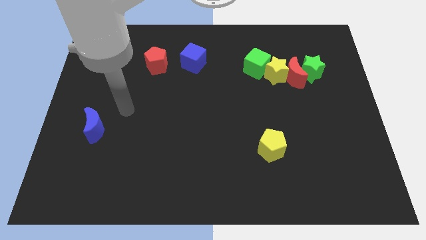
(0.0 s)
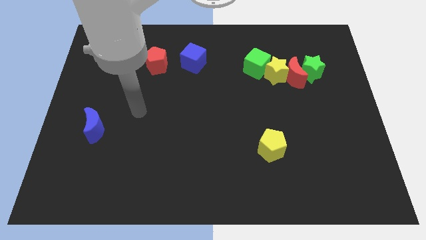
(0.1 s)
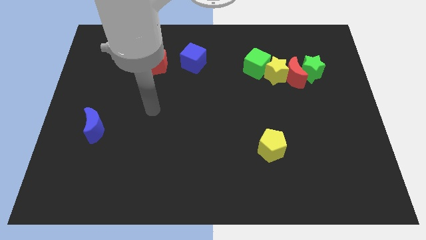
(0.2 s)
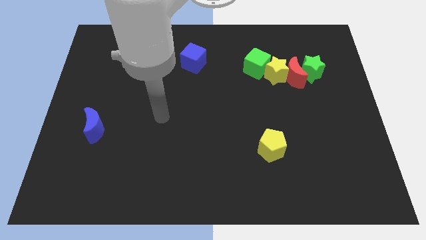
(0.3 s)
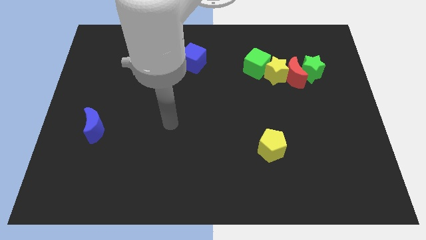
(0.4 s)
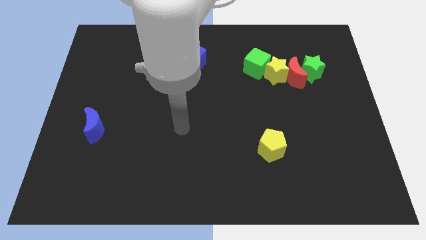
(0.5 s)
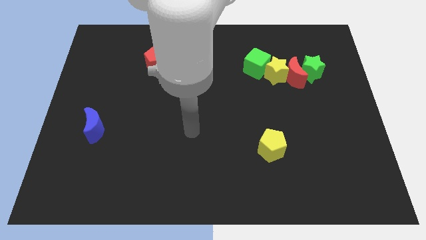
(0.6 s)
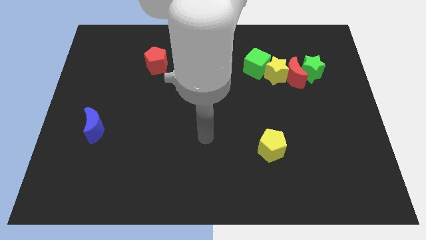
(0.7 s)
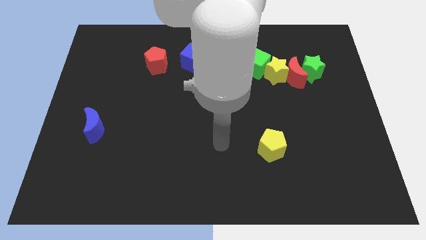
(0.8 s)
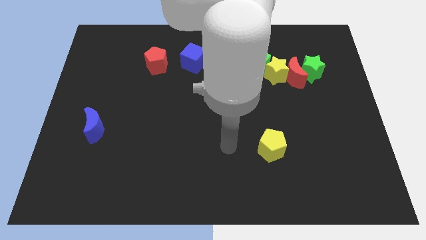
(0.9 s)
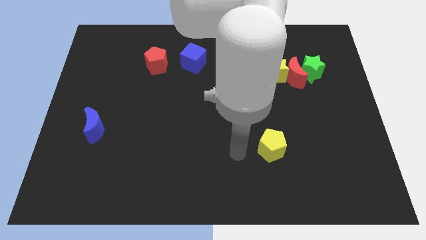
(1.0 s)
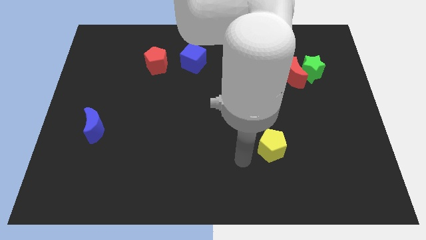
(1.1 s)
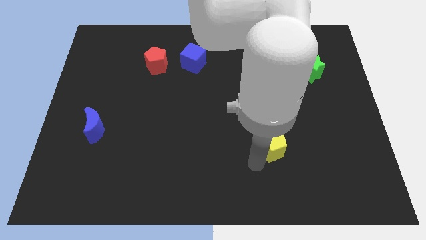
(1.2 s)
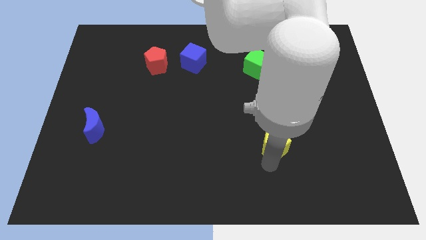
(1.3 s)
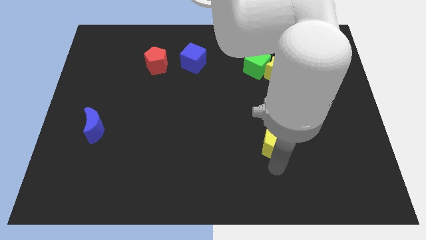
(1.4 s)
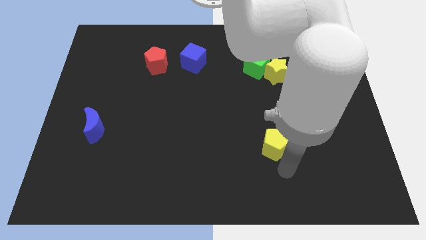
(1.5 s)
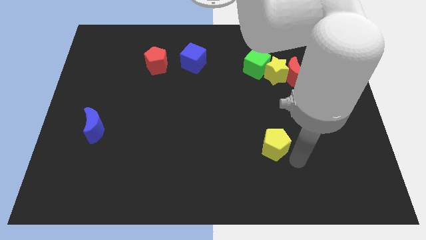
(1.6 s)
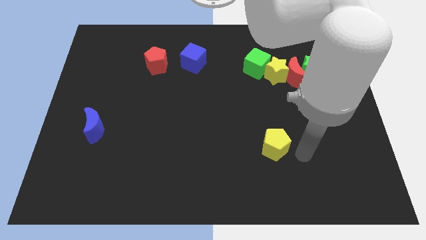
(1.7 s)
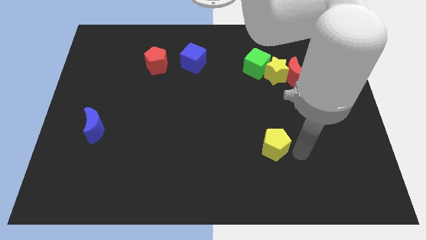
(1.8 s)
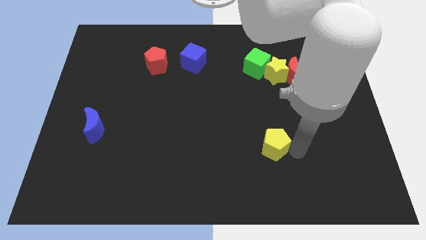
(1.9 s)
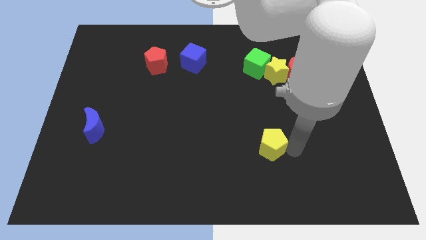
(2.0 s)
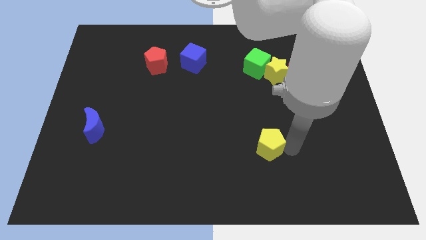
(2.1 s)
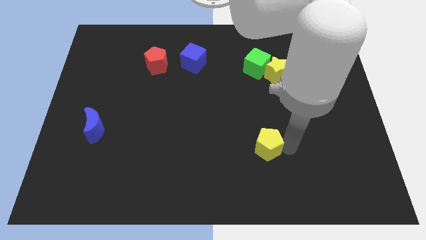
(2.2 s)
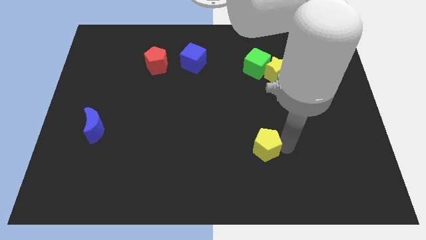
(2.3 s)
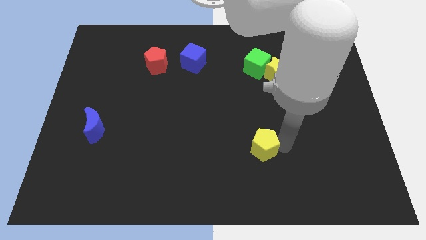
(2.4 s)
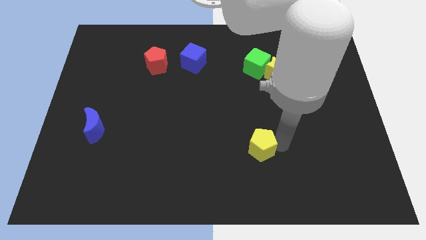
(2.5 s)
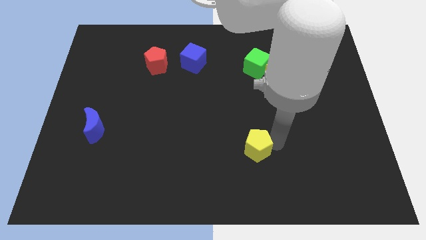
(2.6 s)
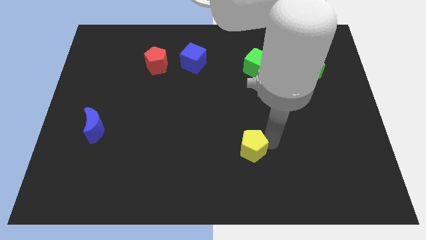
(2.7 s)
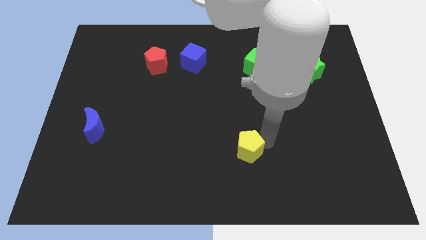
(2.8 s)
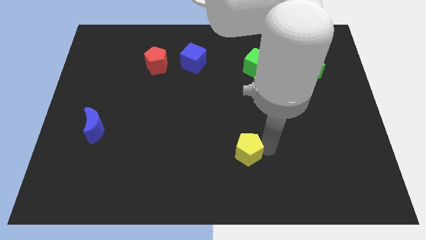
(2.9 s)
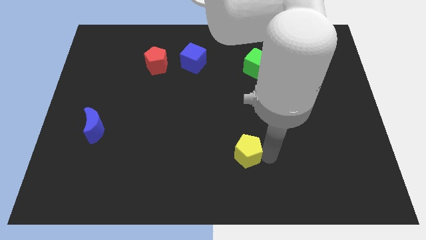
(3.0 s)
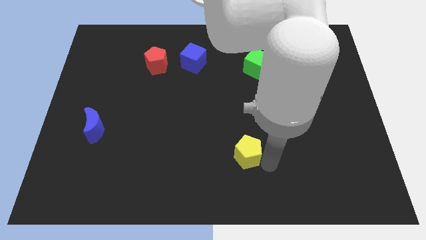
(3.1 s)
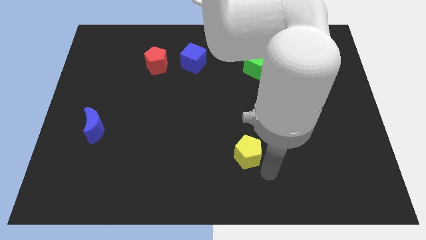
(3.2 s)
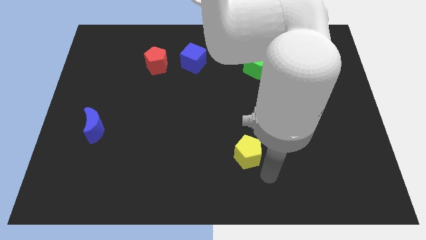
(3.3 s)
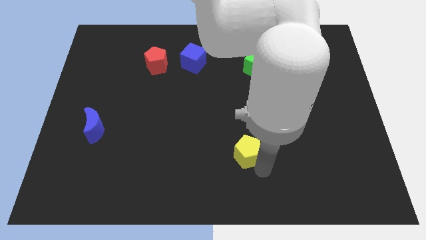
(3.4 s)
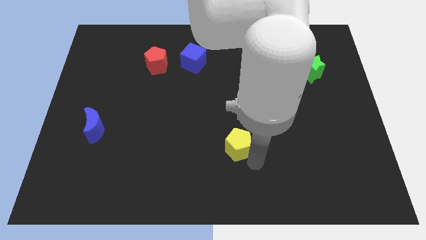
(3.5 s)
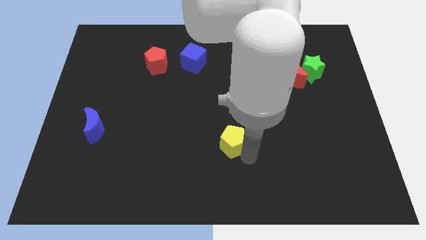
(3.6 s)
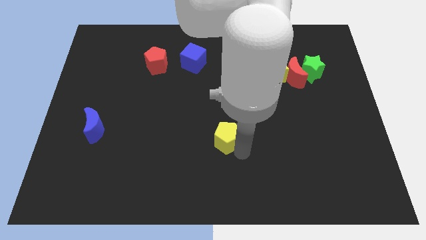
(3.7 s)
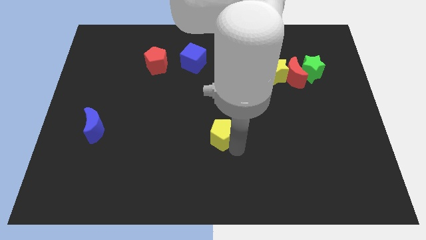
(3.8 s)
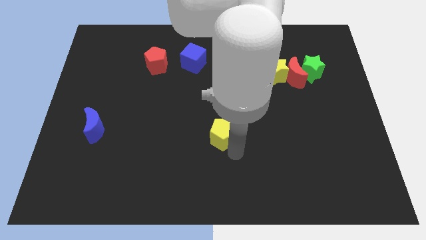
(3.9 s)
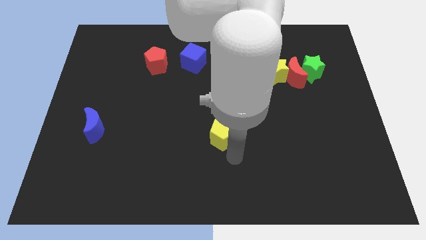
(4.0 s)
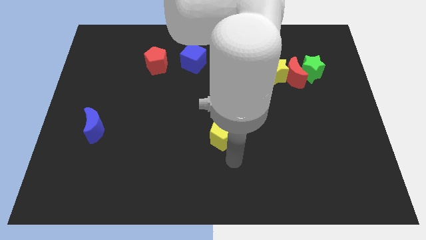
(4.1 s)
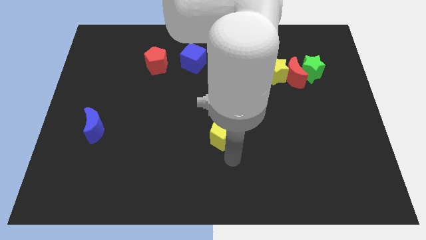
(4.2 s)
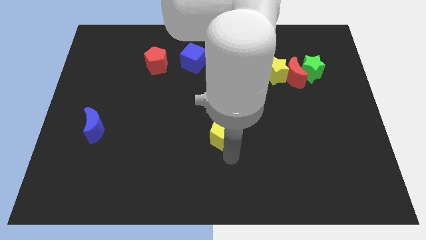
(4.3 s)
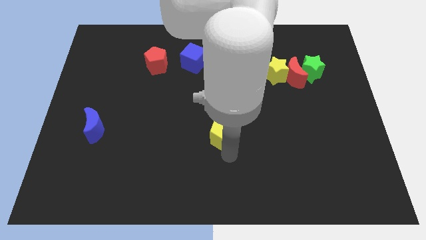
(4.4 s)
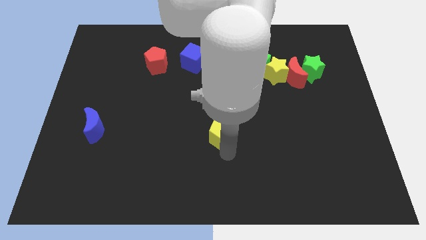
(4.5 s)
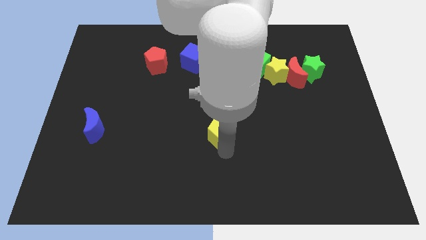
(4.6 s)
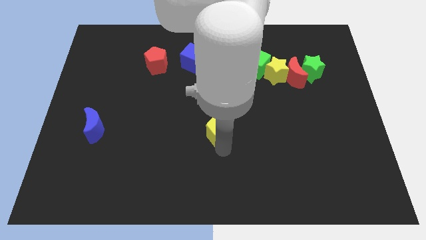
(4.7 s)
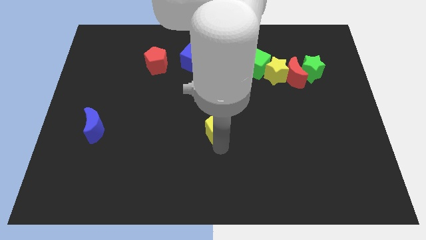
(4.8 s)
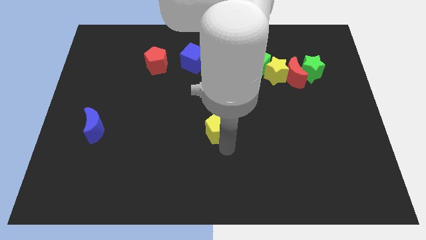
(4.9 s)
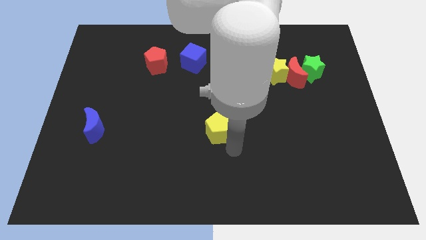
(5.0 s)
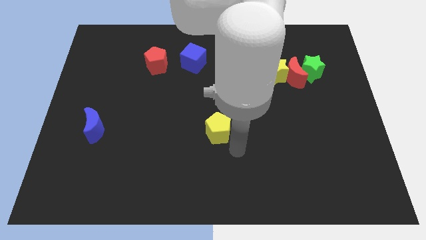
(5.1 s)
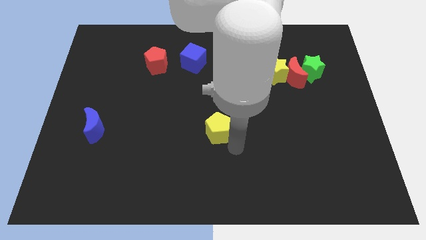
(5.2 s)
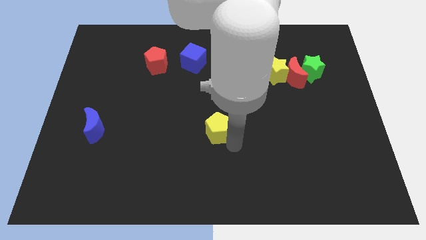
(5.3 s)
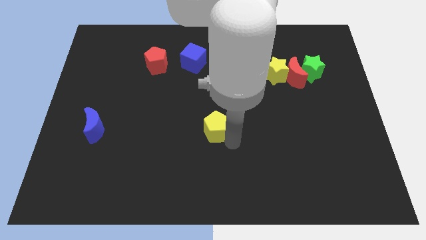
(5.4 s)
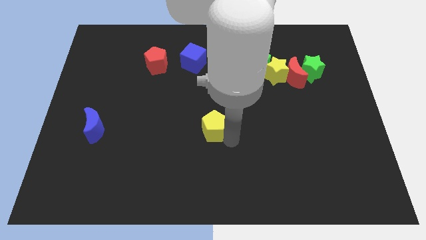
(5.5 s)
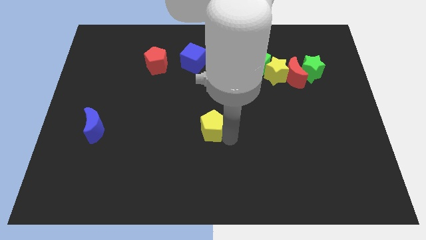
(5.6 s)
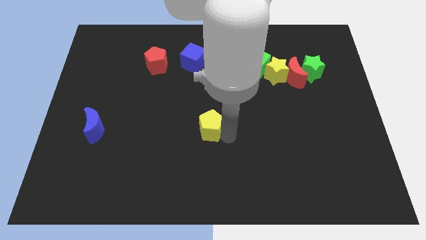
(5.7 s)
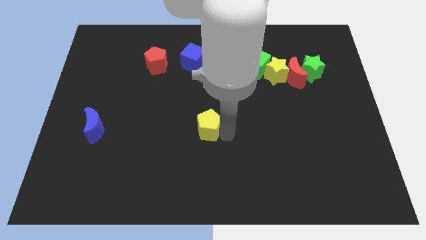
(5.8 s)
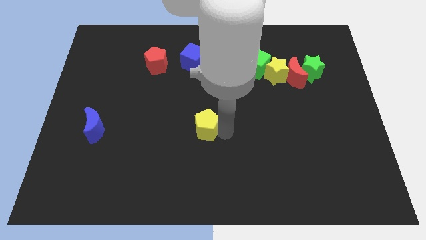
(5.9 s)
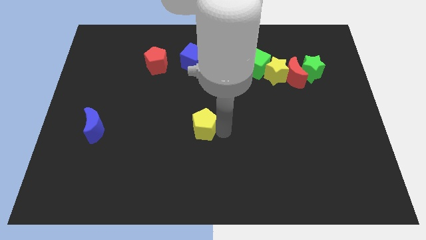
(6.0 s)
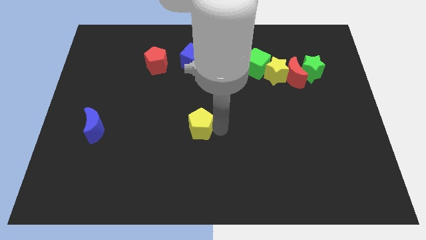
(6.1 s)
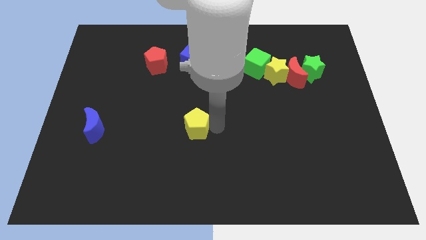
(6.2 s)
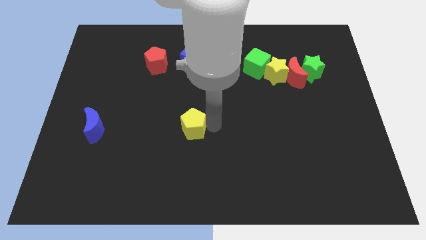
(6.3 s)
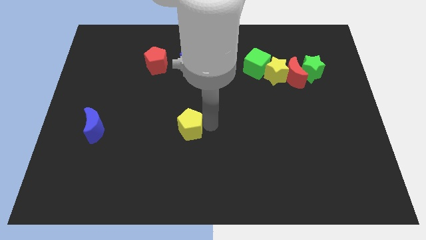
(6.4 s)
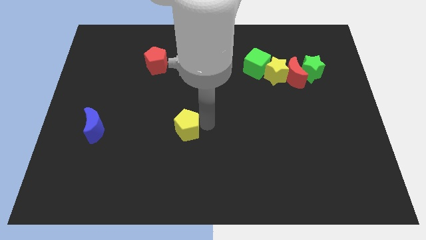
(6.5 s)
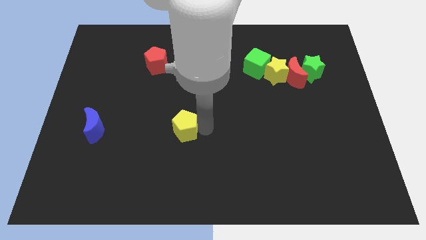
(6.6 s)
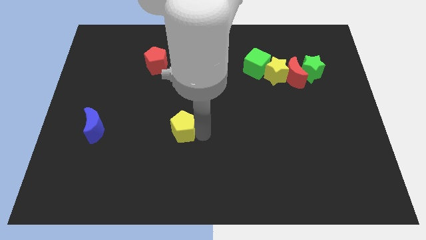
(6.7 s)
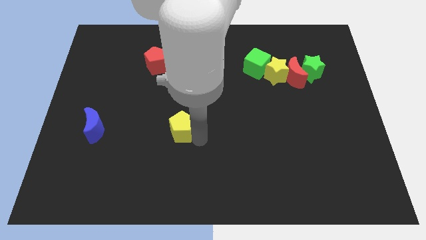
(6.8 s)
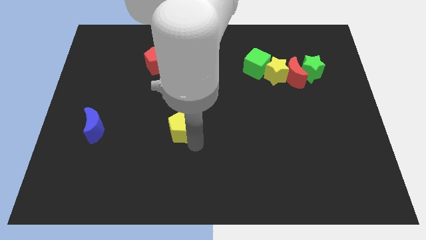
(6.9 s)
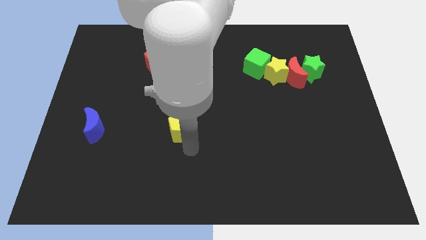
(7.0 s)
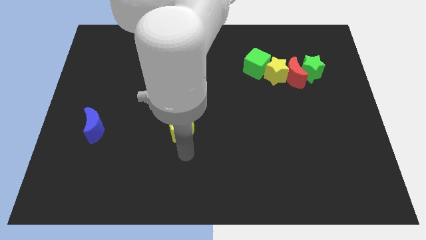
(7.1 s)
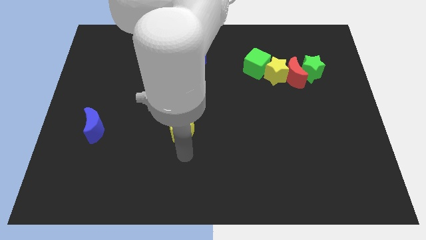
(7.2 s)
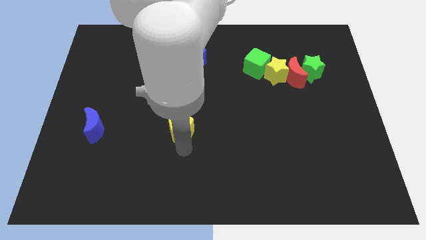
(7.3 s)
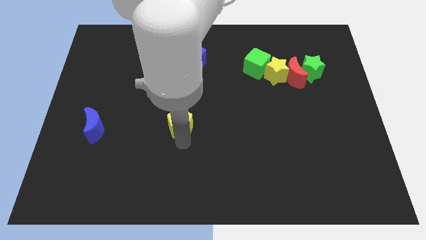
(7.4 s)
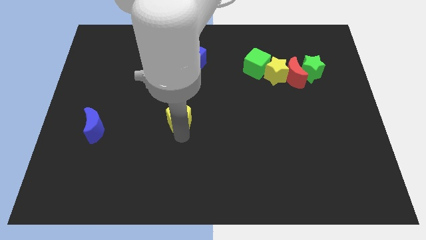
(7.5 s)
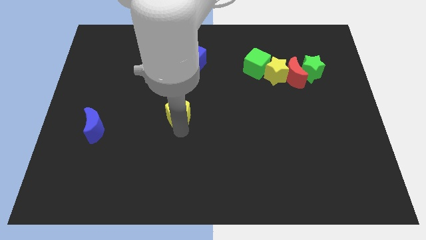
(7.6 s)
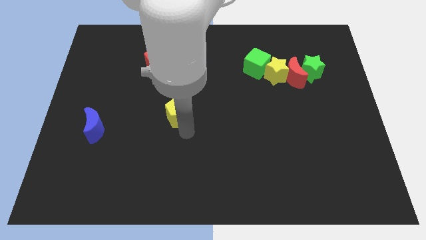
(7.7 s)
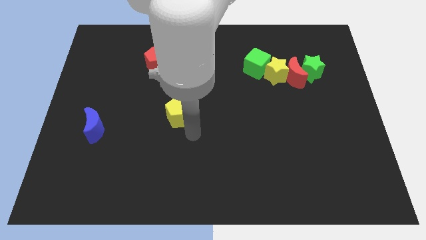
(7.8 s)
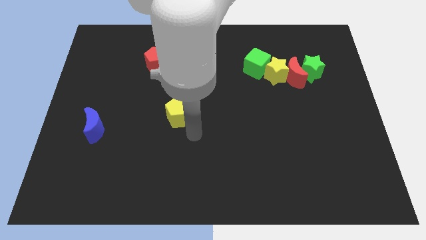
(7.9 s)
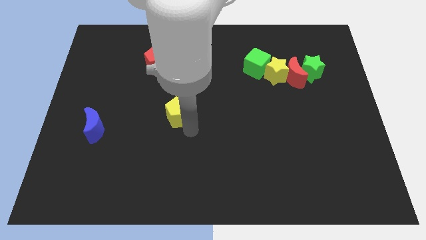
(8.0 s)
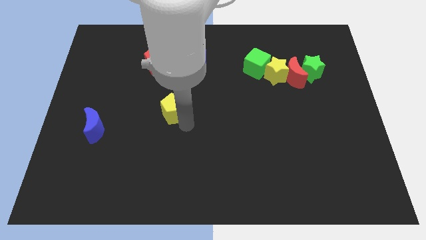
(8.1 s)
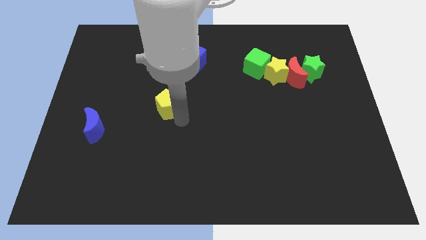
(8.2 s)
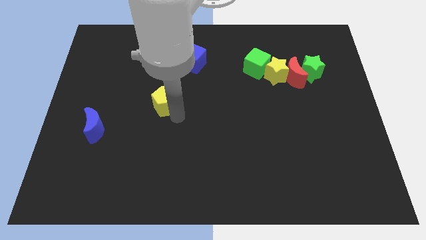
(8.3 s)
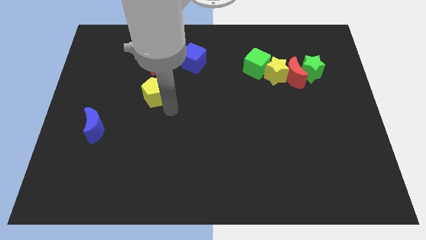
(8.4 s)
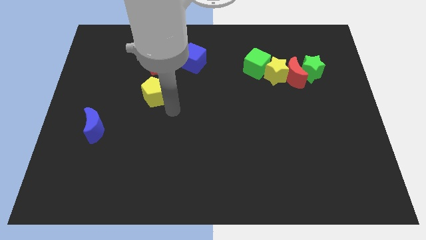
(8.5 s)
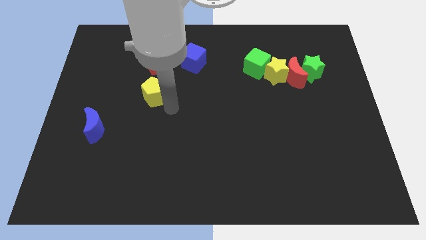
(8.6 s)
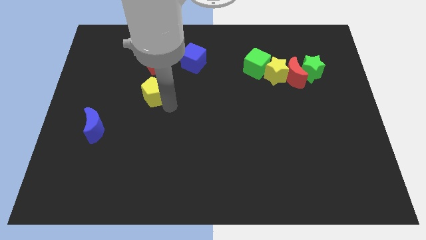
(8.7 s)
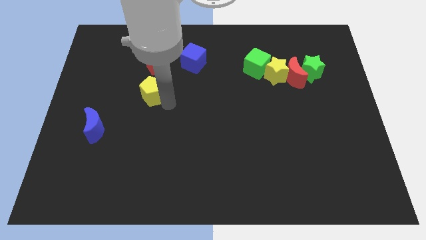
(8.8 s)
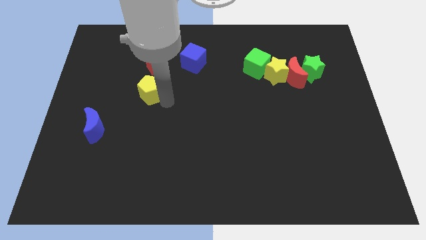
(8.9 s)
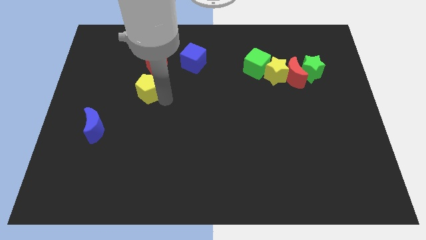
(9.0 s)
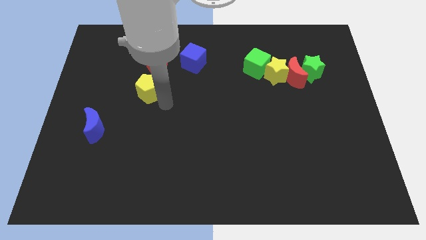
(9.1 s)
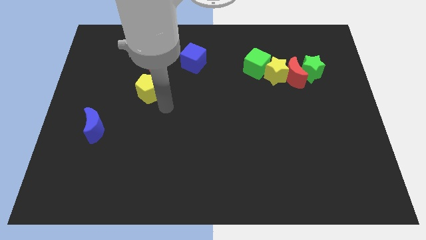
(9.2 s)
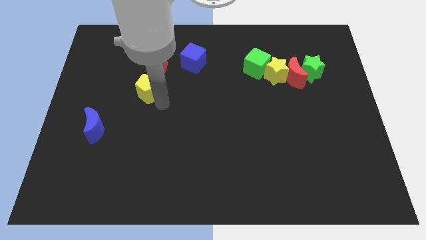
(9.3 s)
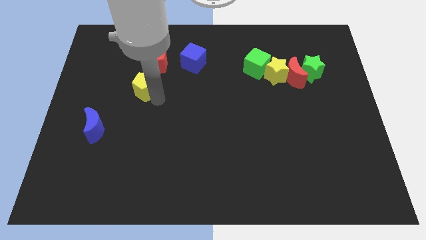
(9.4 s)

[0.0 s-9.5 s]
put the yellow pentagon to the bottom left side of the red pentagon
